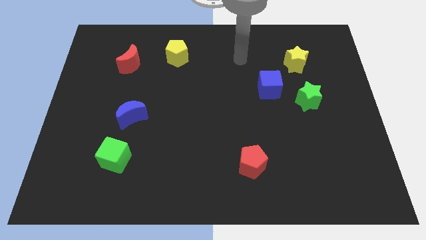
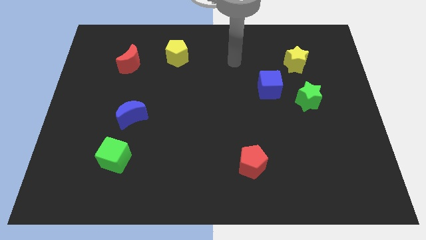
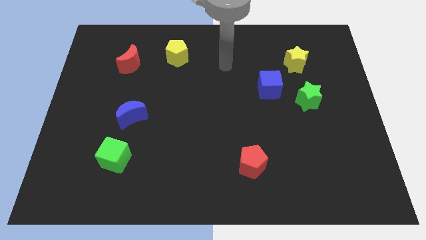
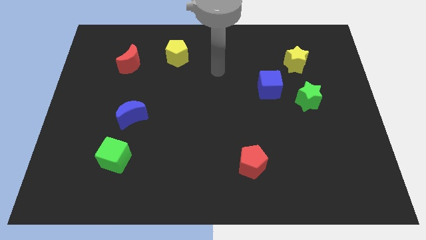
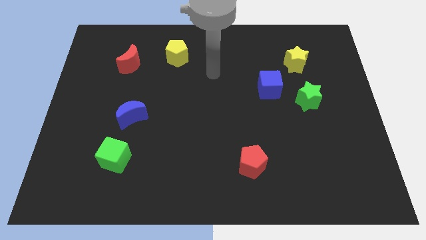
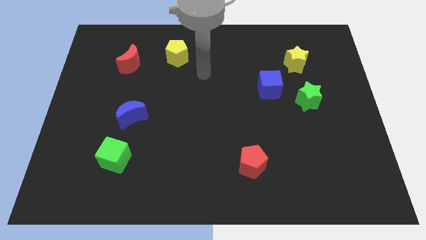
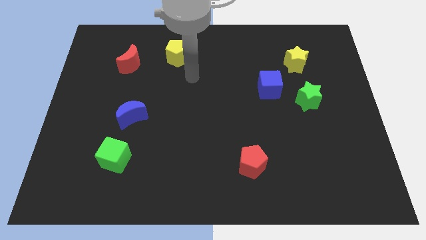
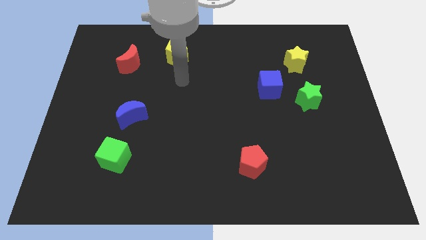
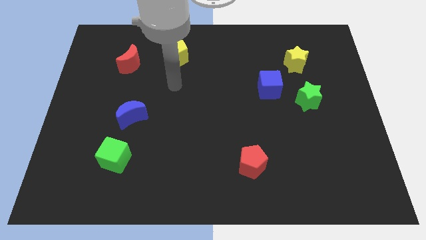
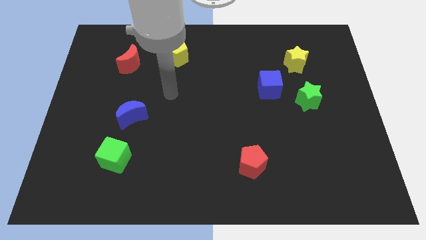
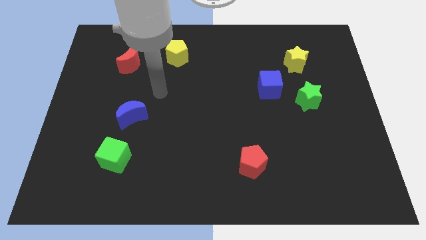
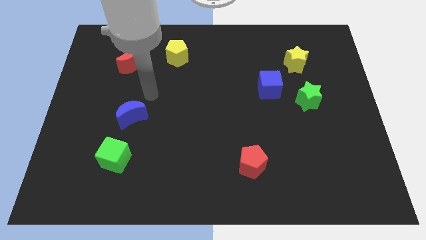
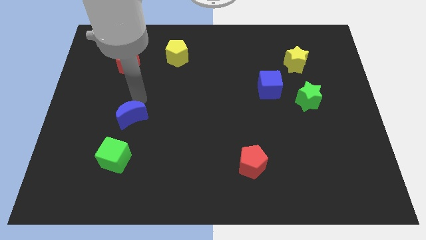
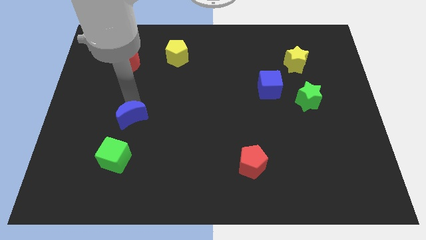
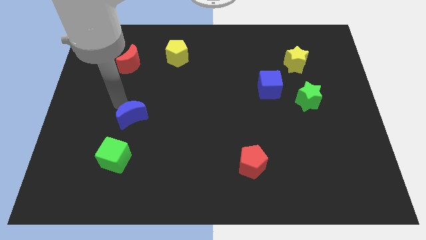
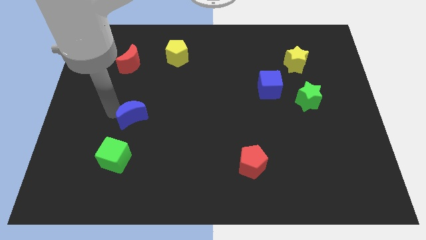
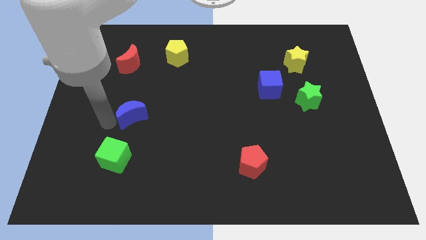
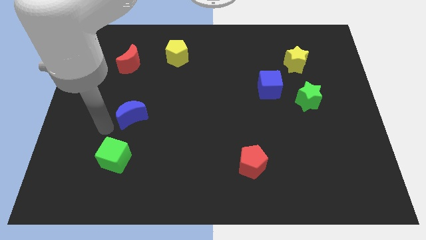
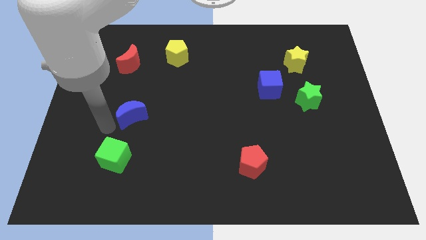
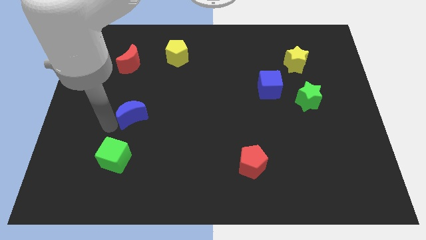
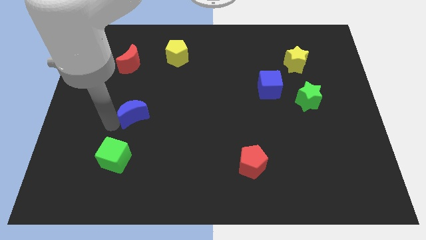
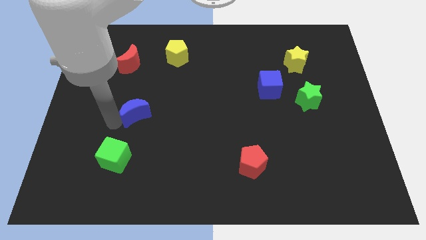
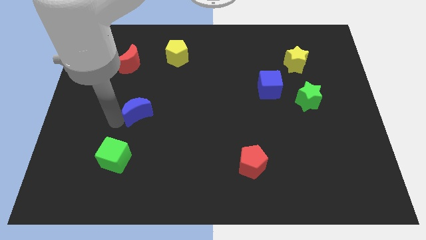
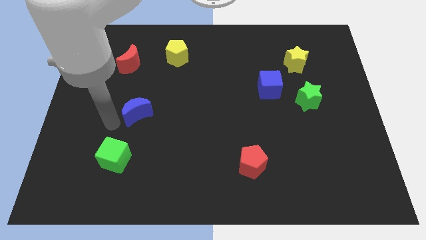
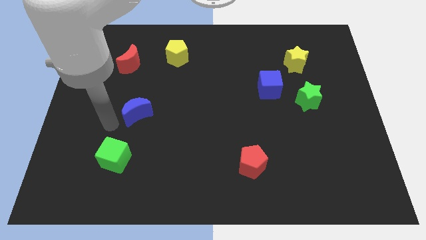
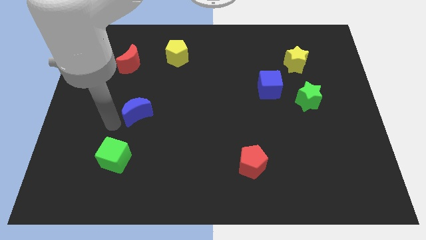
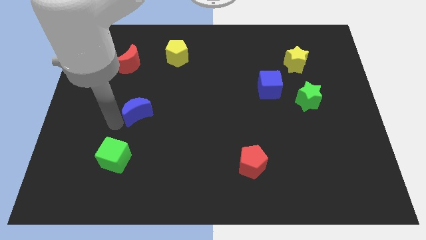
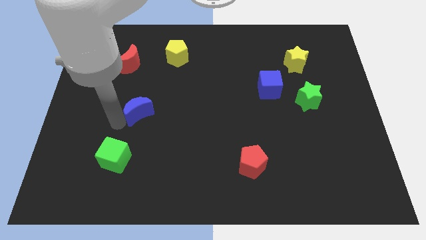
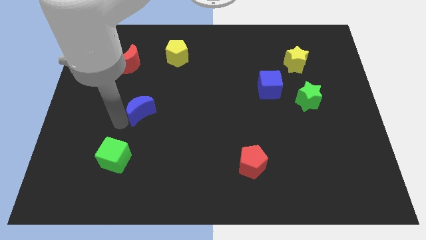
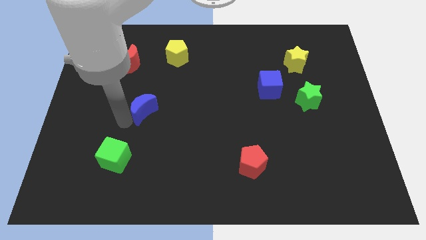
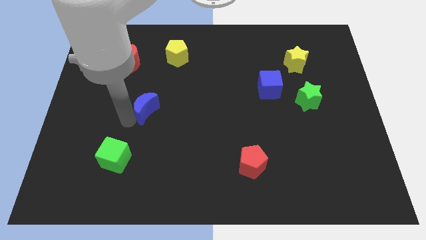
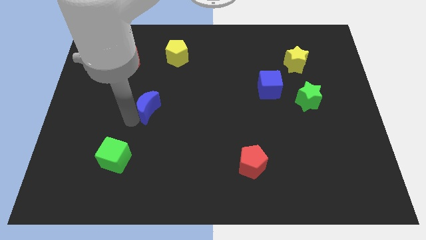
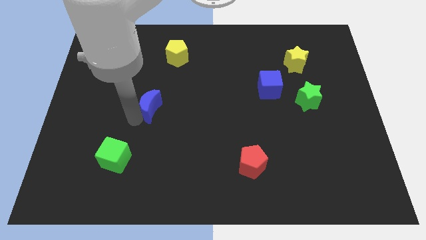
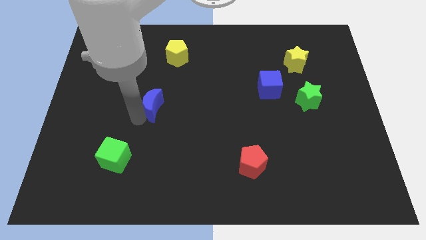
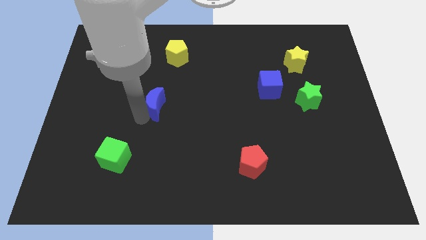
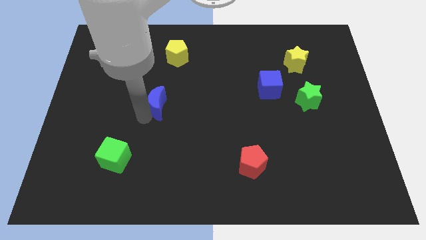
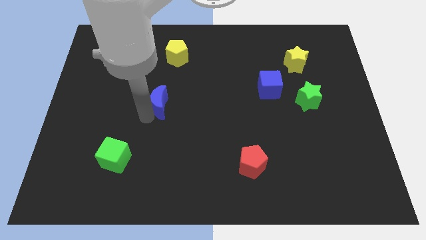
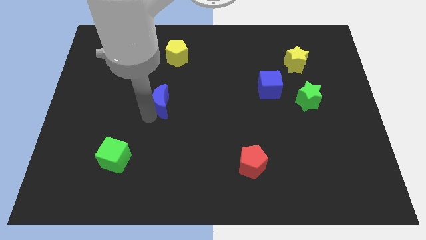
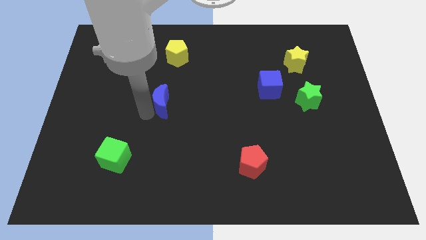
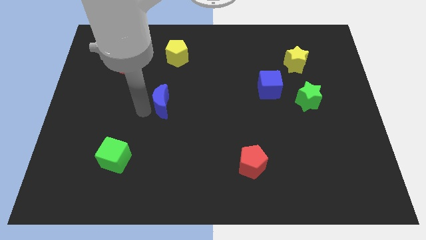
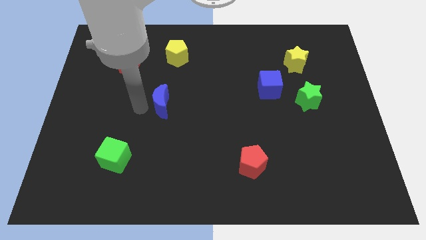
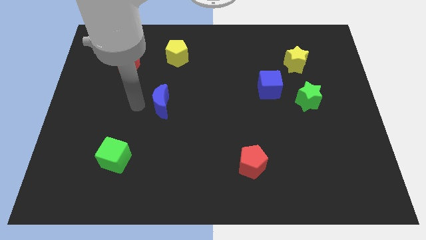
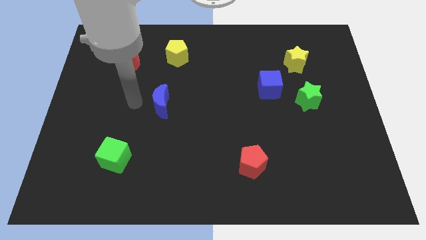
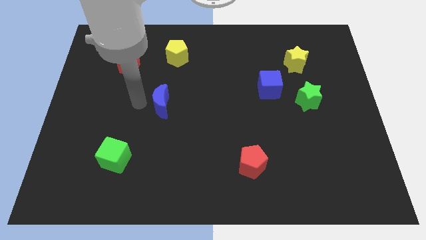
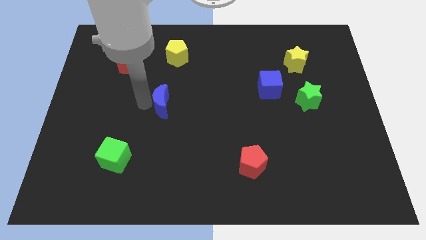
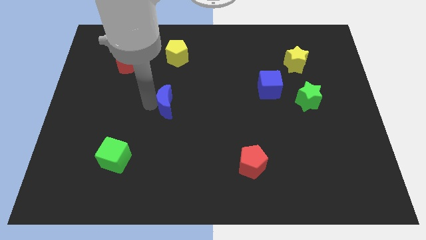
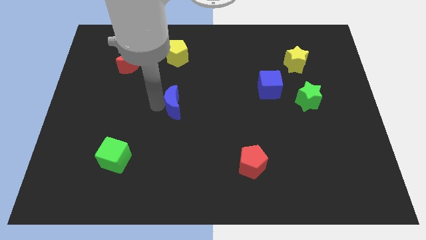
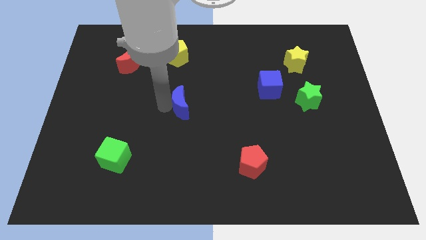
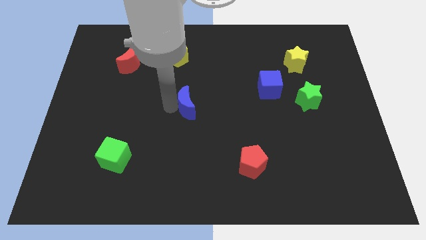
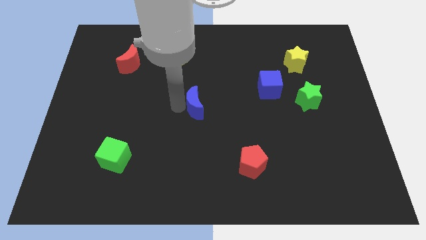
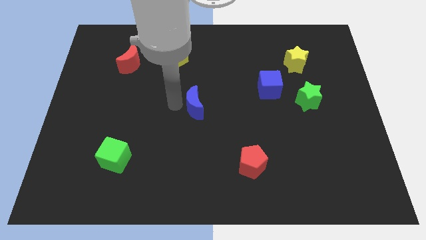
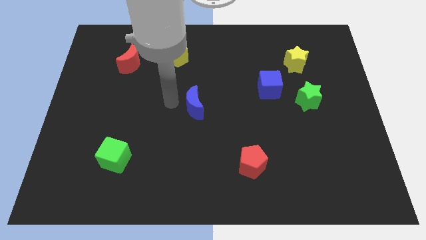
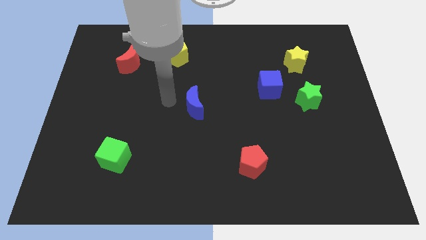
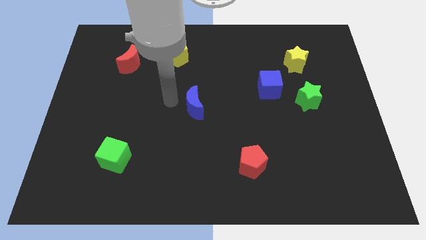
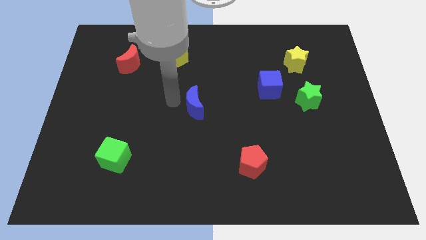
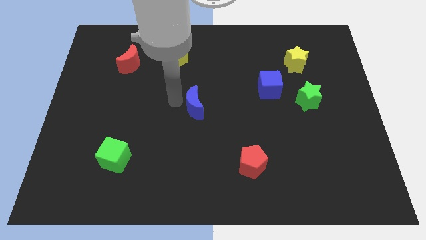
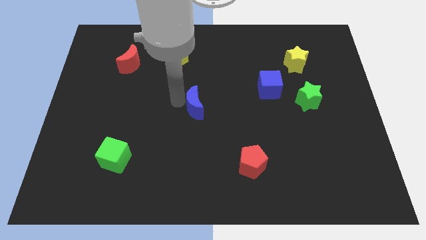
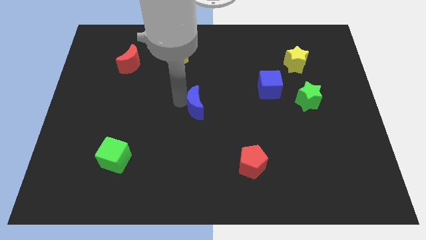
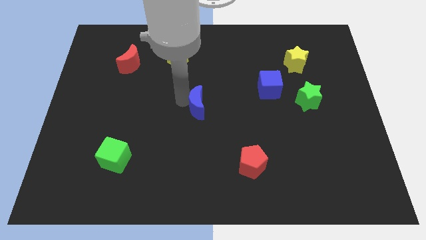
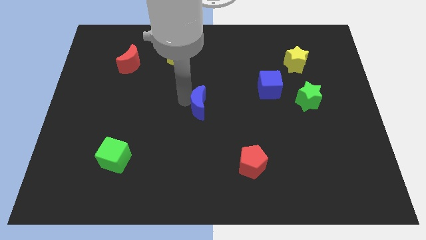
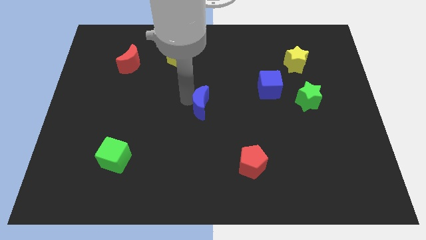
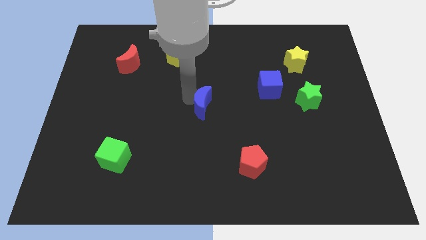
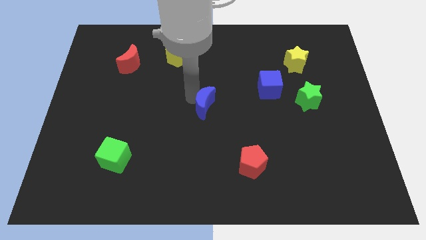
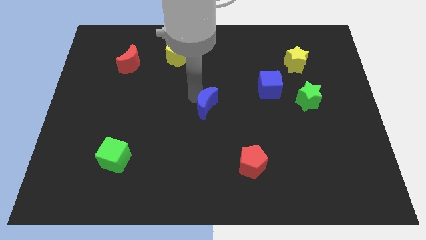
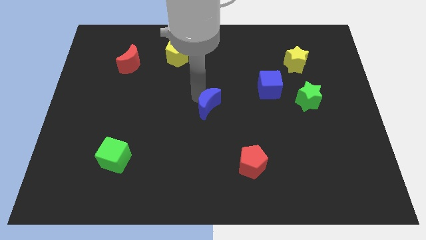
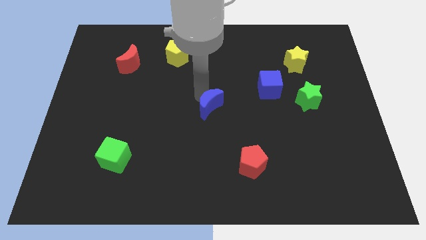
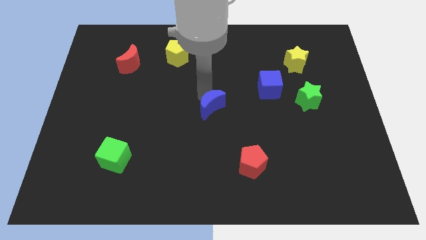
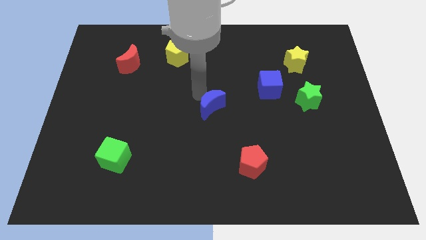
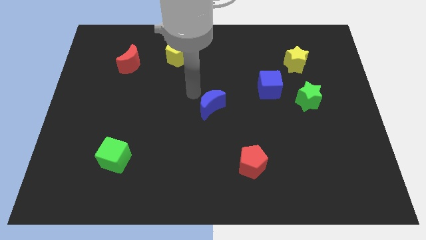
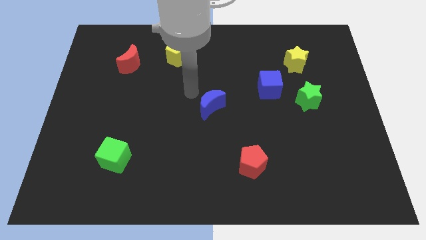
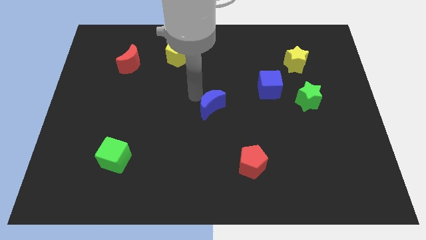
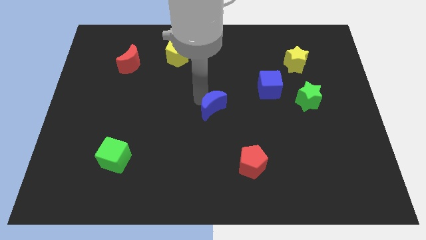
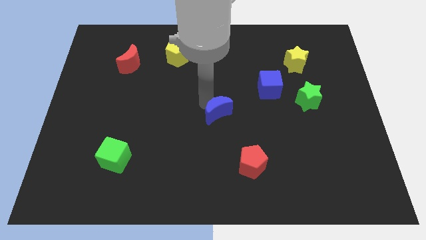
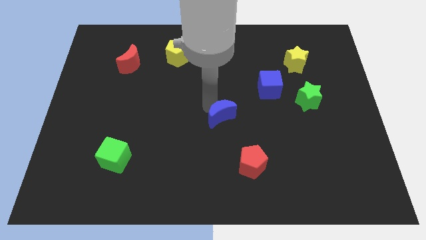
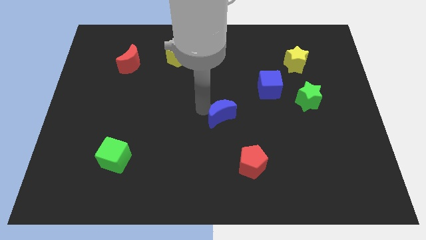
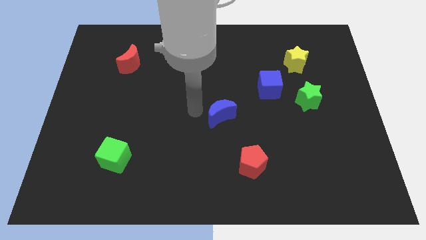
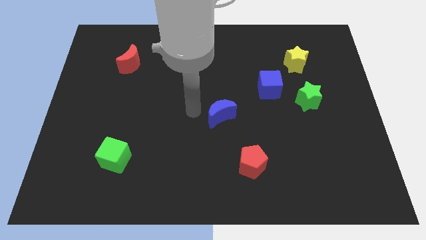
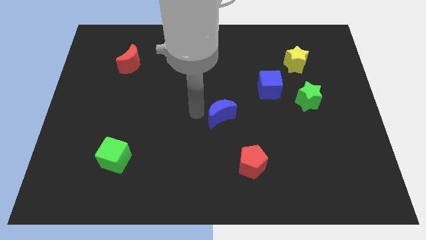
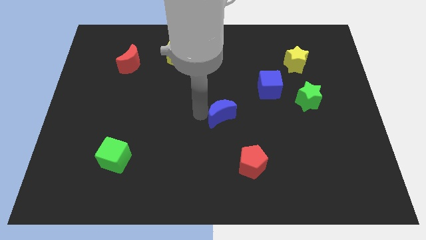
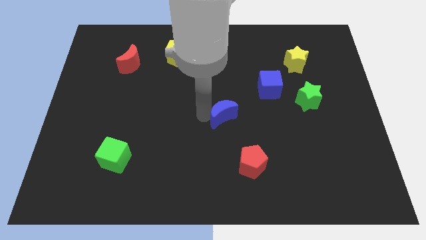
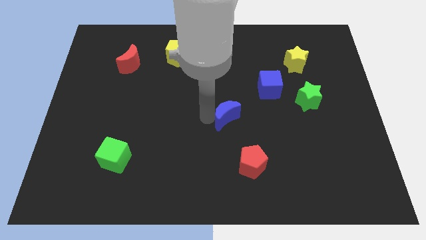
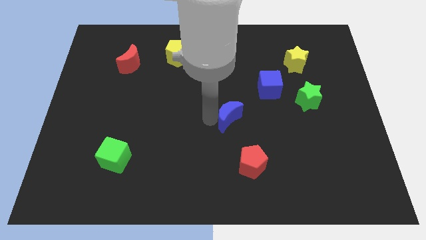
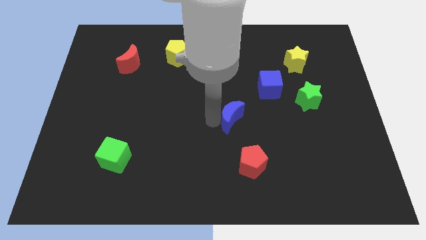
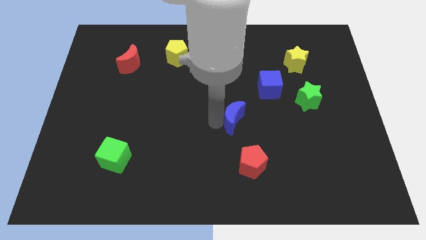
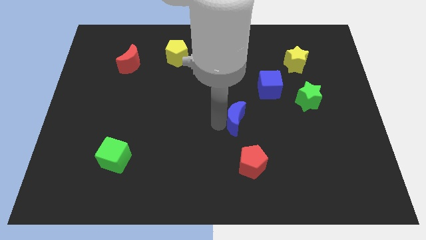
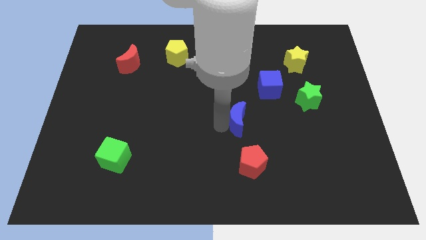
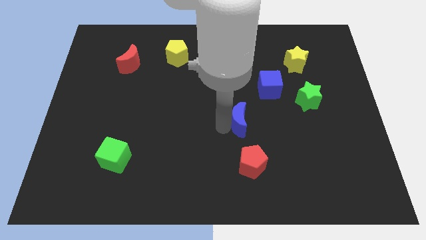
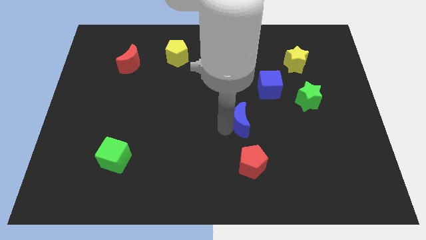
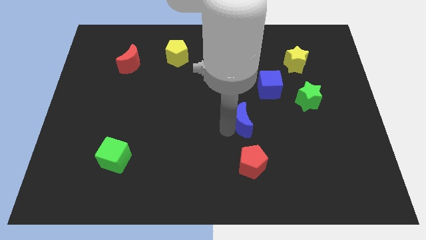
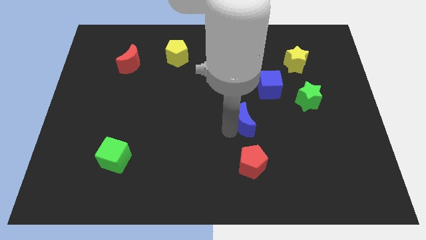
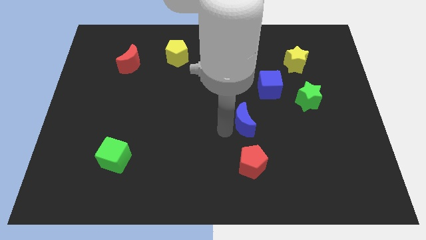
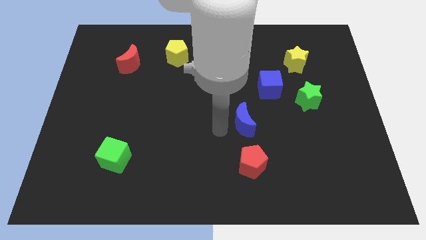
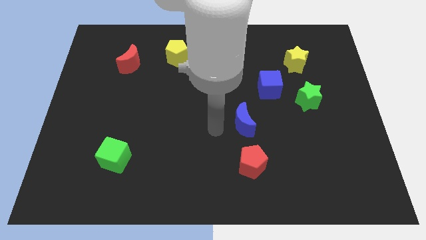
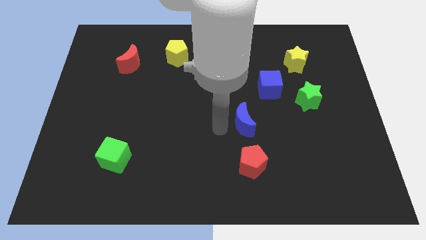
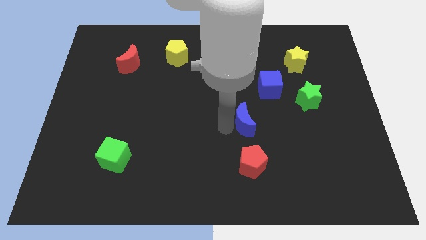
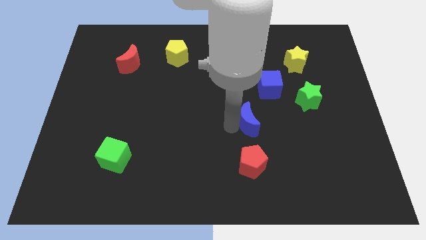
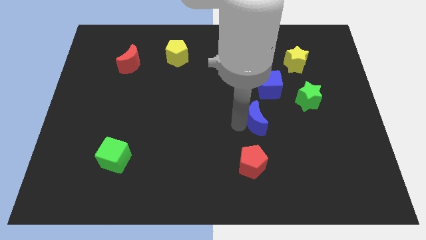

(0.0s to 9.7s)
move the blue moon to the bottom side of the blue cube
